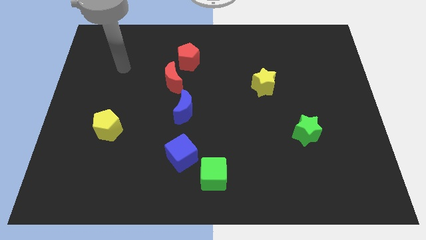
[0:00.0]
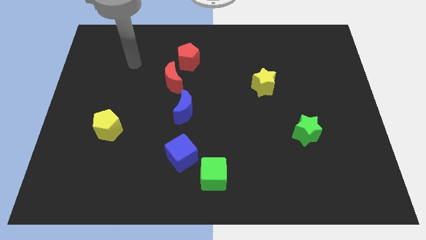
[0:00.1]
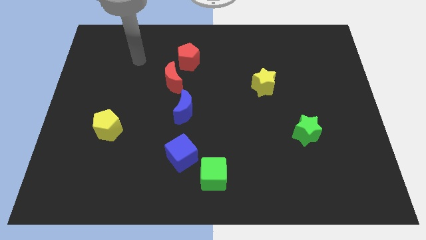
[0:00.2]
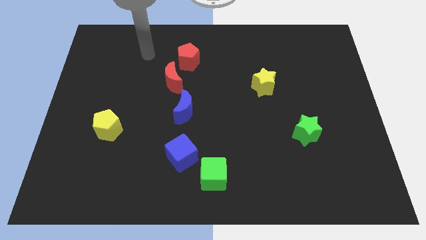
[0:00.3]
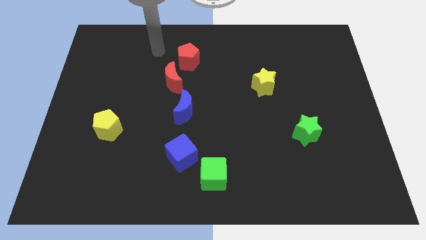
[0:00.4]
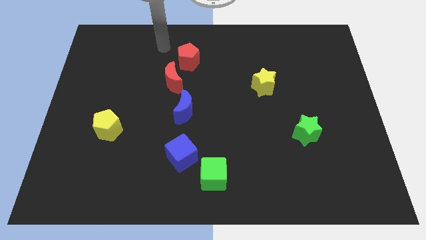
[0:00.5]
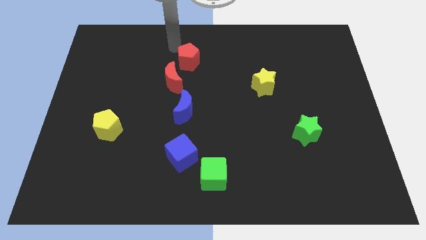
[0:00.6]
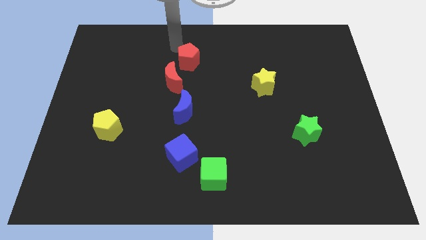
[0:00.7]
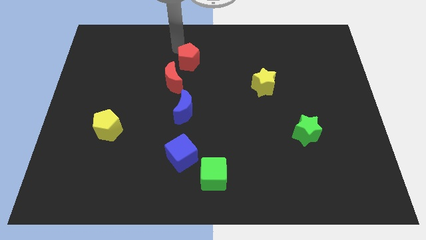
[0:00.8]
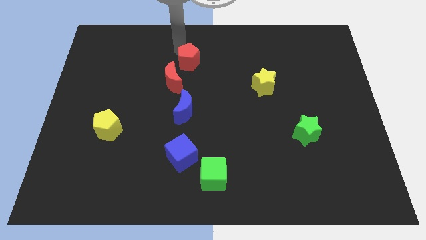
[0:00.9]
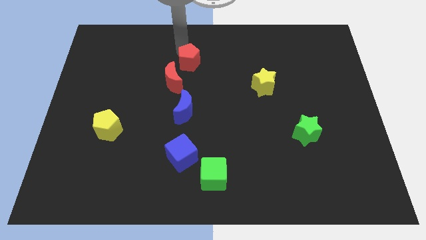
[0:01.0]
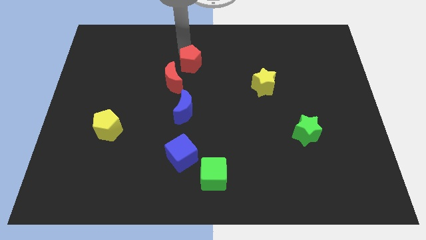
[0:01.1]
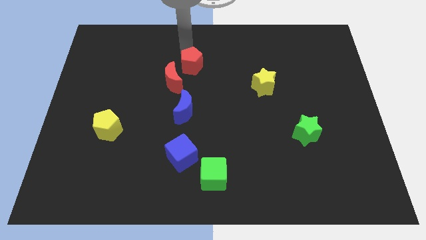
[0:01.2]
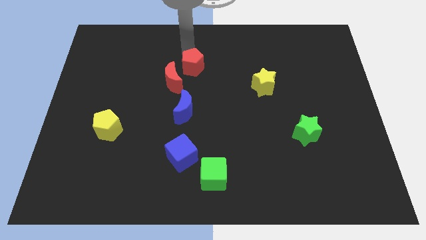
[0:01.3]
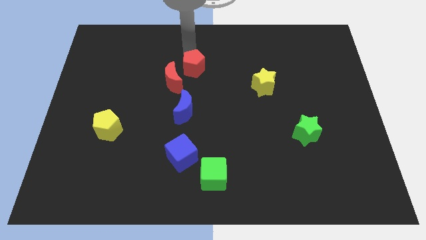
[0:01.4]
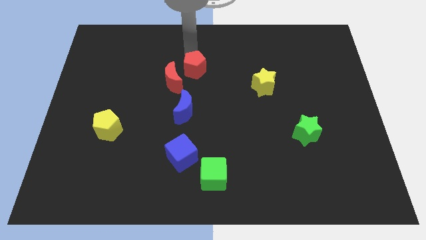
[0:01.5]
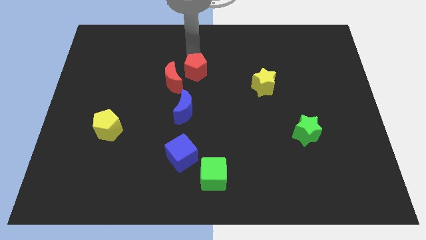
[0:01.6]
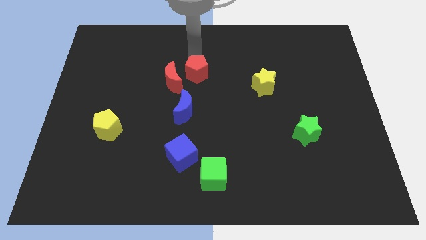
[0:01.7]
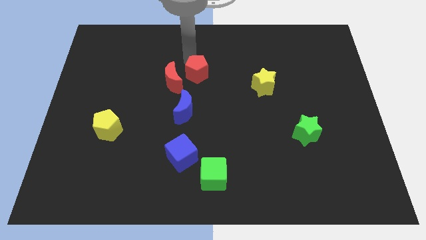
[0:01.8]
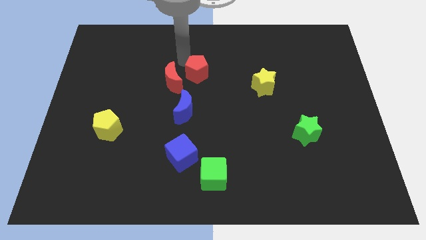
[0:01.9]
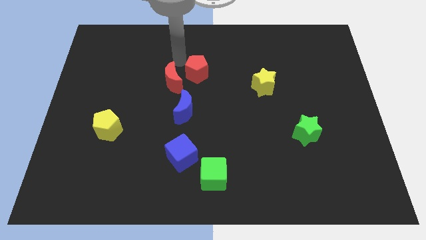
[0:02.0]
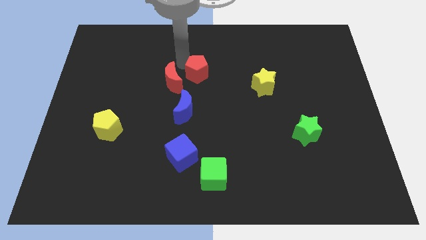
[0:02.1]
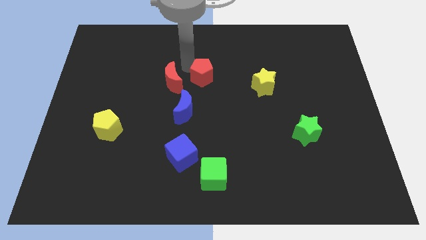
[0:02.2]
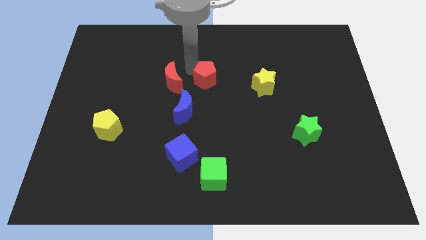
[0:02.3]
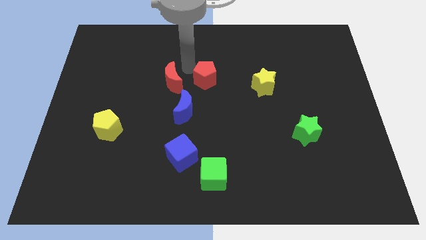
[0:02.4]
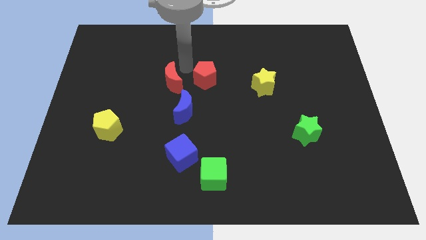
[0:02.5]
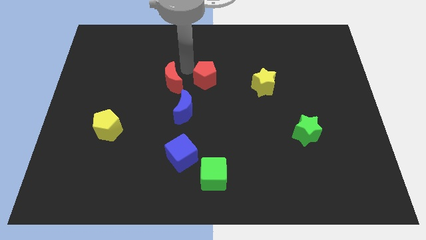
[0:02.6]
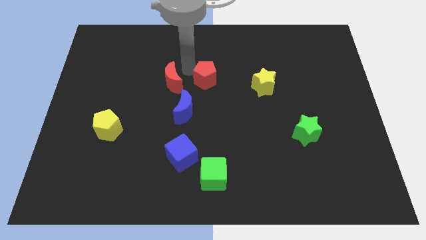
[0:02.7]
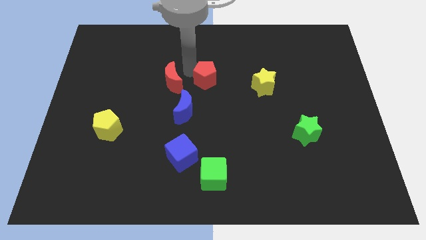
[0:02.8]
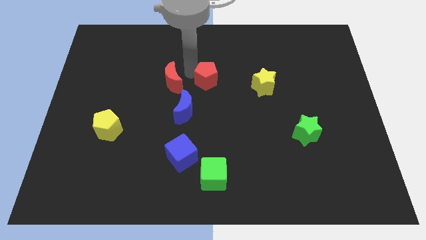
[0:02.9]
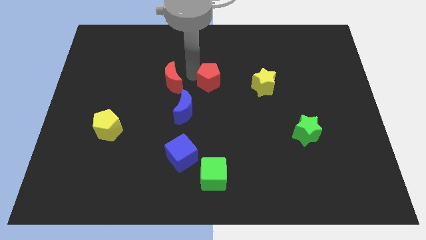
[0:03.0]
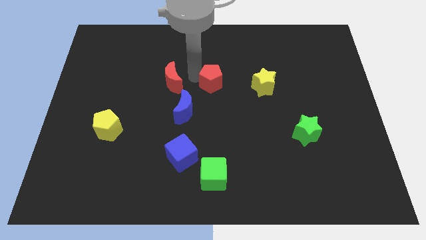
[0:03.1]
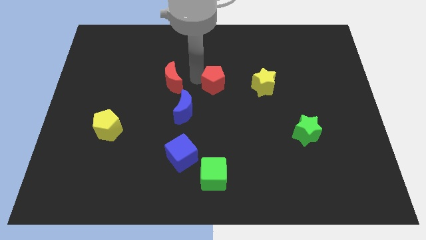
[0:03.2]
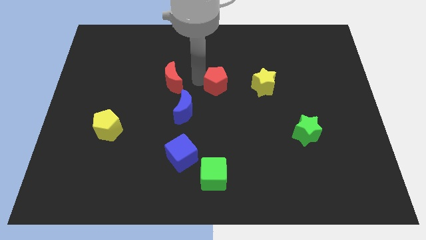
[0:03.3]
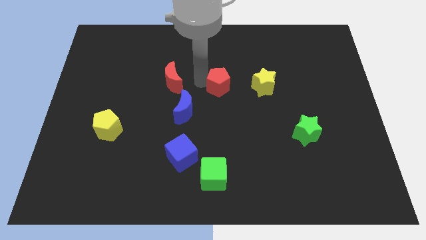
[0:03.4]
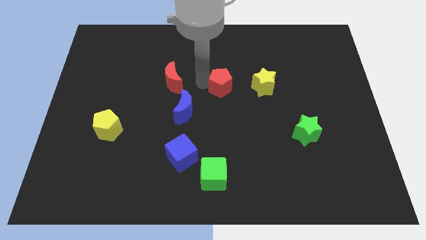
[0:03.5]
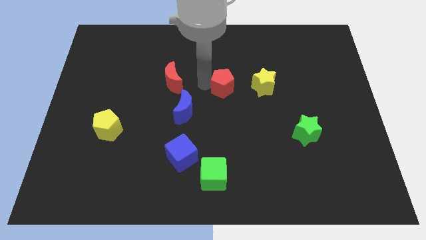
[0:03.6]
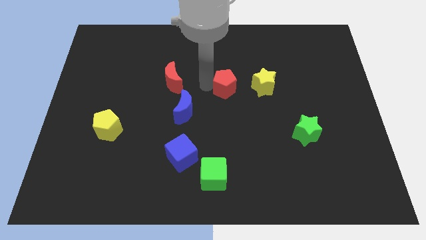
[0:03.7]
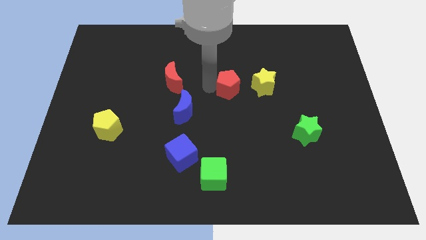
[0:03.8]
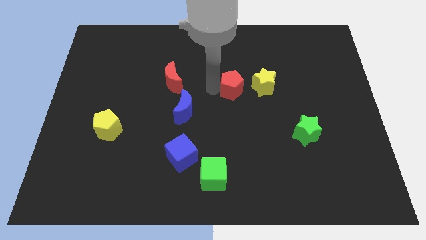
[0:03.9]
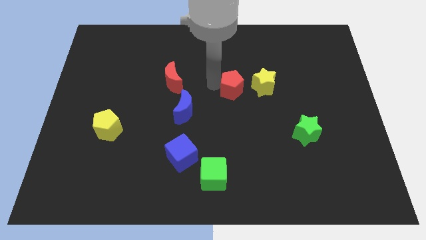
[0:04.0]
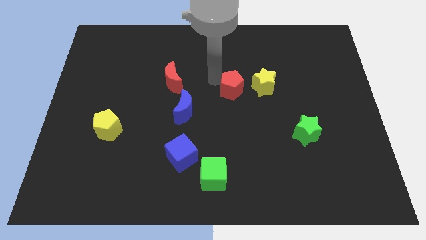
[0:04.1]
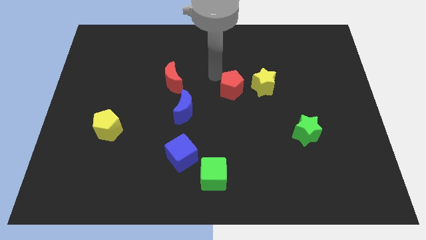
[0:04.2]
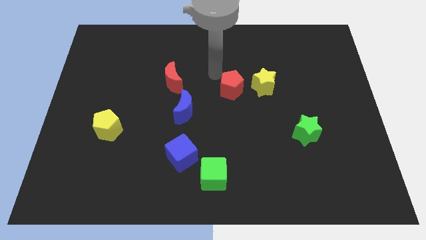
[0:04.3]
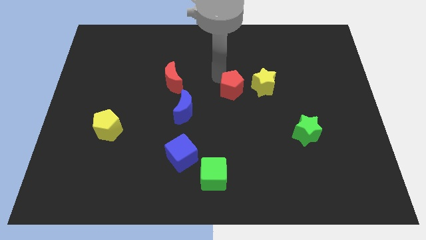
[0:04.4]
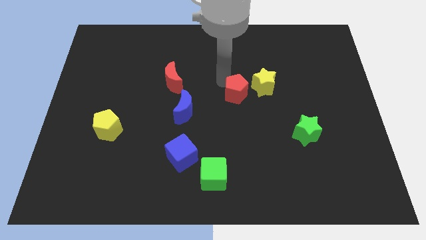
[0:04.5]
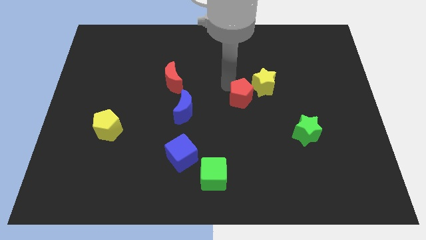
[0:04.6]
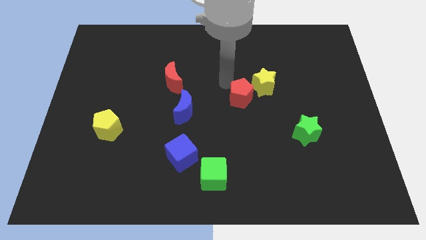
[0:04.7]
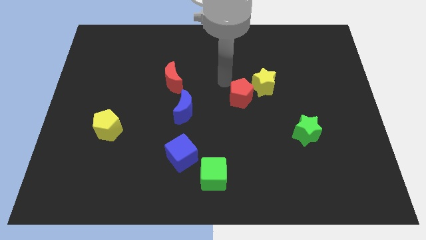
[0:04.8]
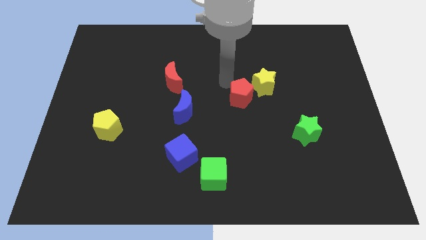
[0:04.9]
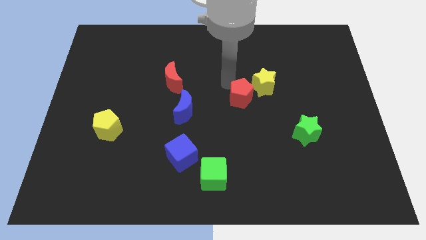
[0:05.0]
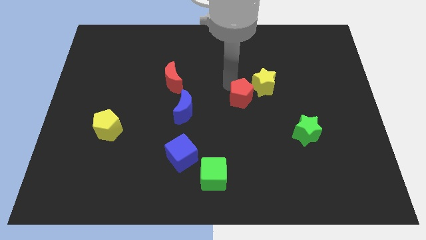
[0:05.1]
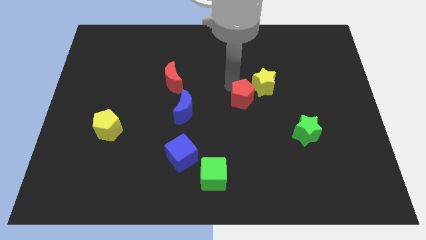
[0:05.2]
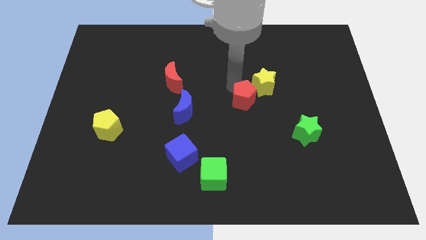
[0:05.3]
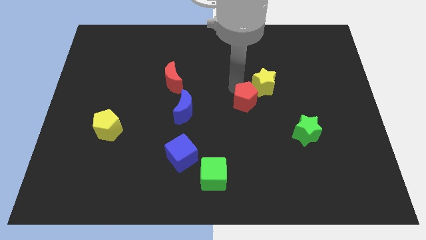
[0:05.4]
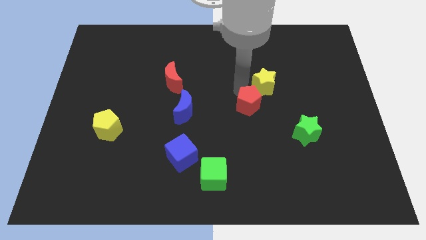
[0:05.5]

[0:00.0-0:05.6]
move the red pentagon downwards and right

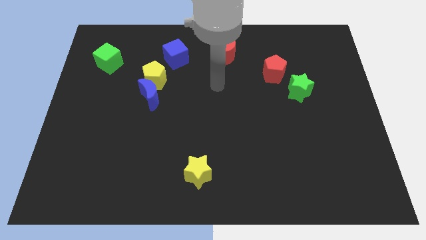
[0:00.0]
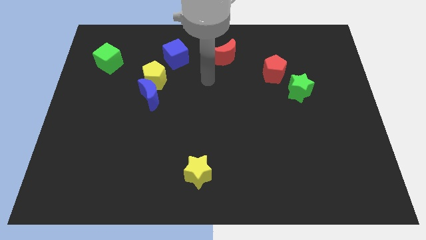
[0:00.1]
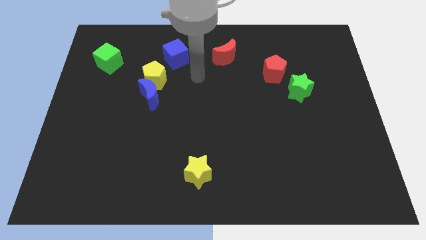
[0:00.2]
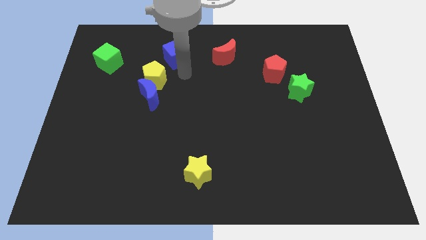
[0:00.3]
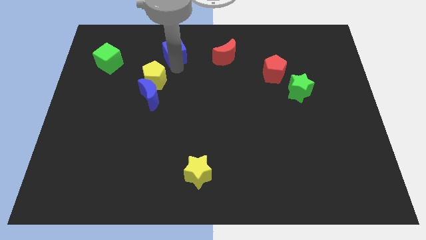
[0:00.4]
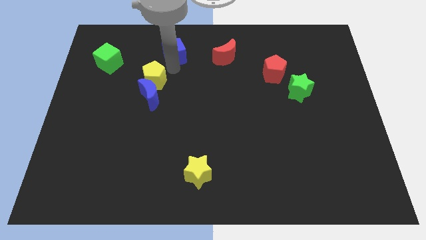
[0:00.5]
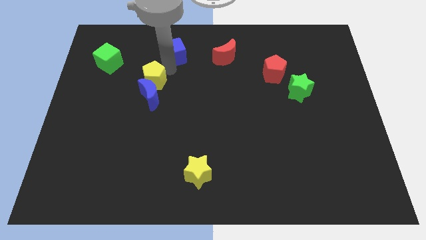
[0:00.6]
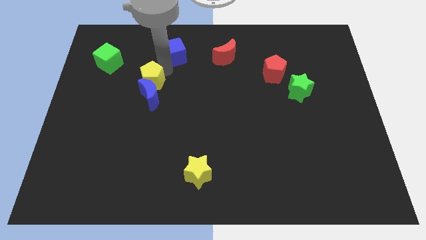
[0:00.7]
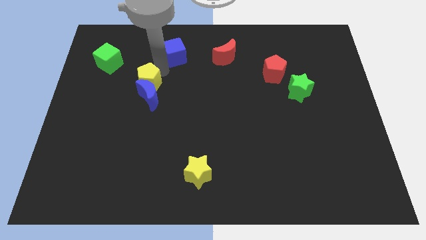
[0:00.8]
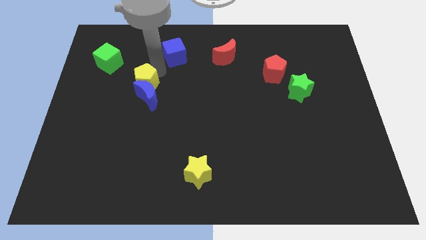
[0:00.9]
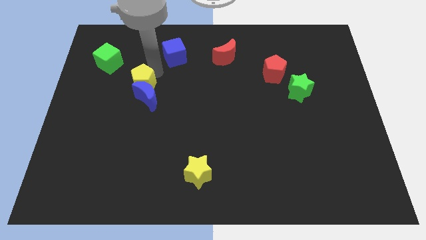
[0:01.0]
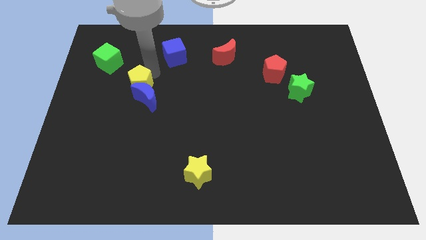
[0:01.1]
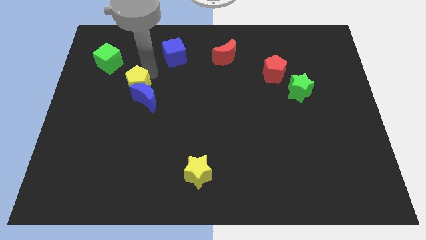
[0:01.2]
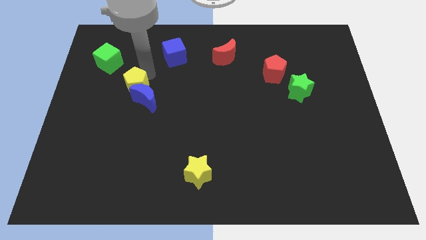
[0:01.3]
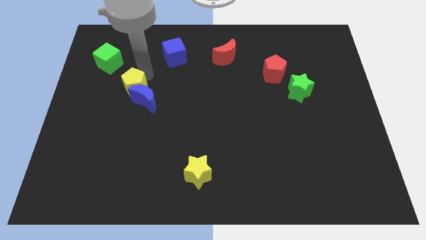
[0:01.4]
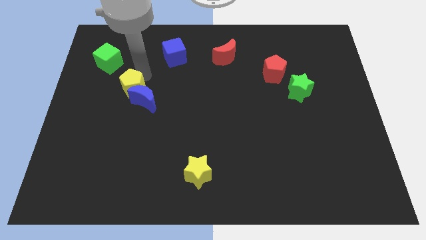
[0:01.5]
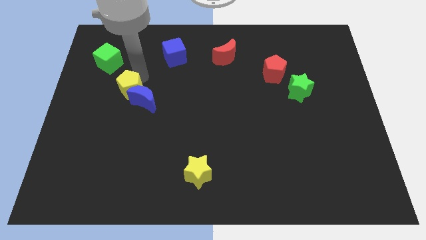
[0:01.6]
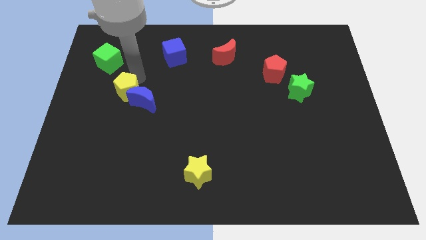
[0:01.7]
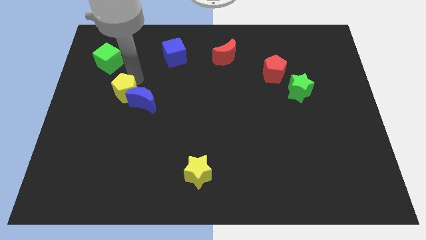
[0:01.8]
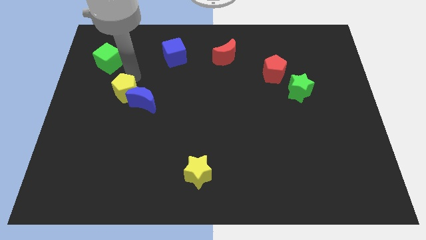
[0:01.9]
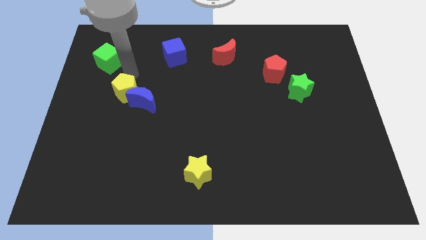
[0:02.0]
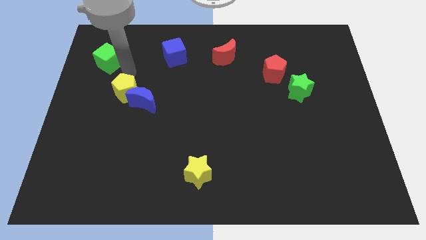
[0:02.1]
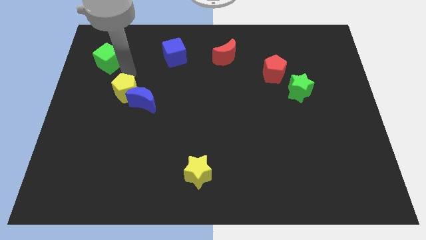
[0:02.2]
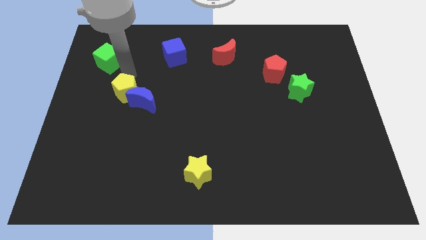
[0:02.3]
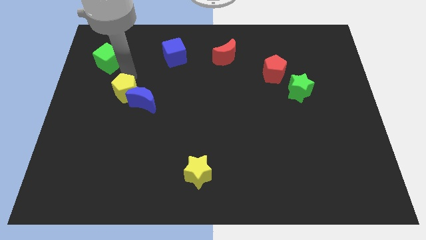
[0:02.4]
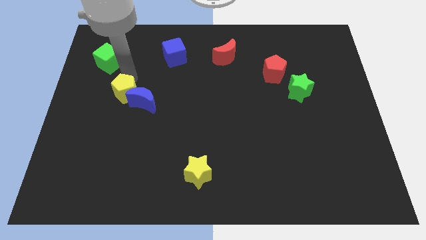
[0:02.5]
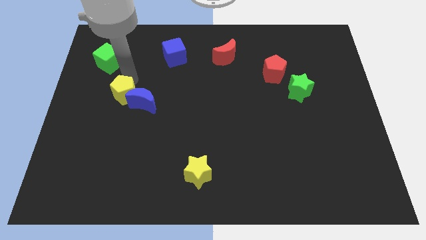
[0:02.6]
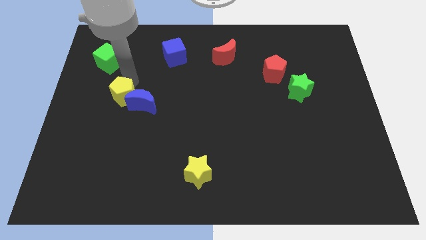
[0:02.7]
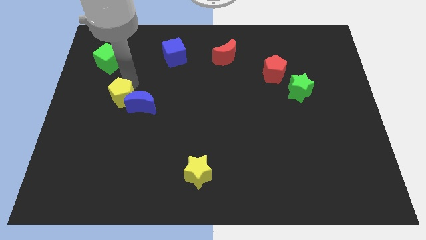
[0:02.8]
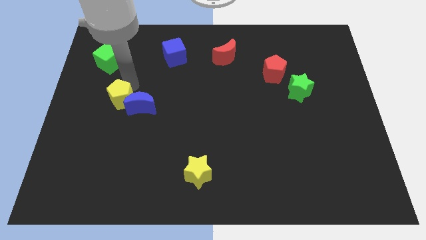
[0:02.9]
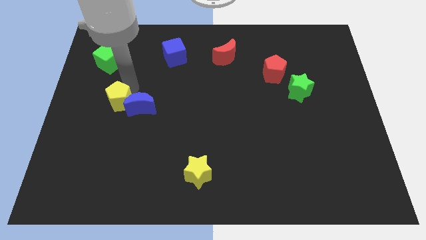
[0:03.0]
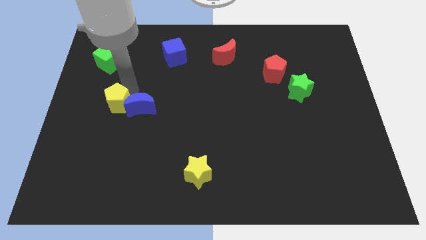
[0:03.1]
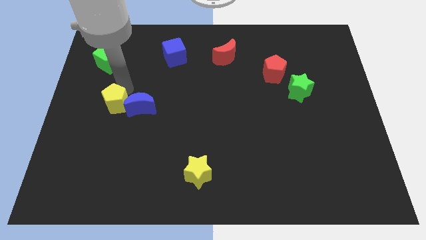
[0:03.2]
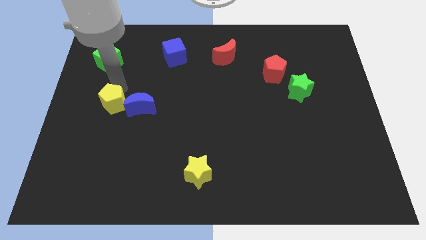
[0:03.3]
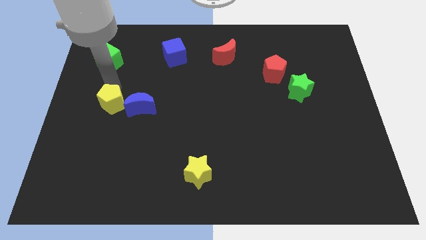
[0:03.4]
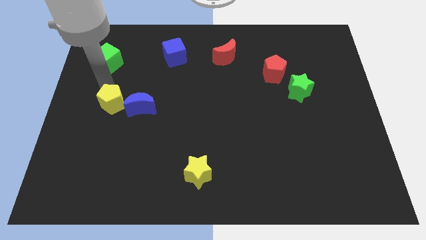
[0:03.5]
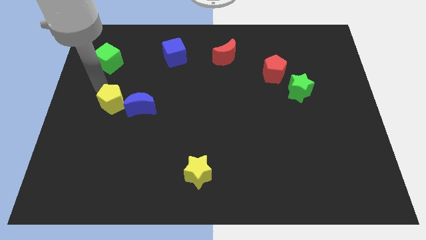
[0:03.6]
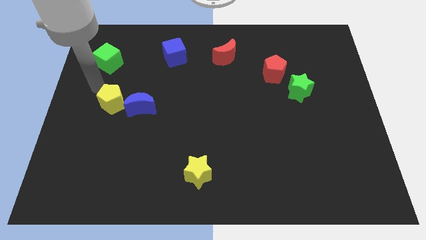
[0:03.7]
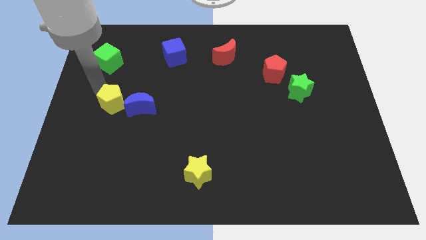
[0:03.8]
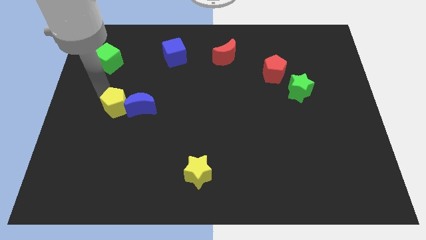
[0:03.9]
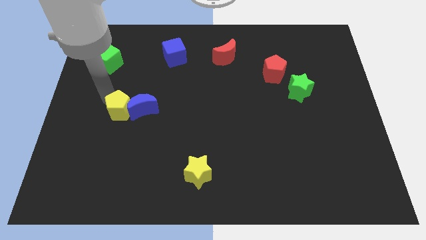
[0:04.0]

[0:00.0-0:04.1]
move the yellow pentagon a little downwards
